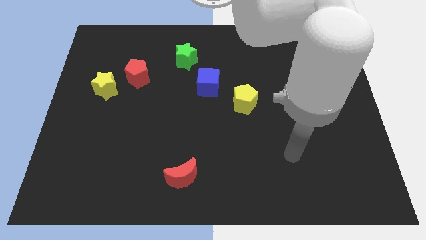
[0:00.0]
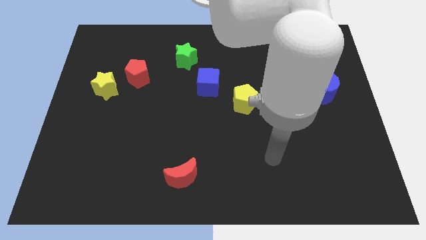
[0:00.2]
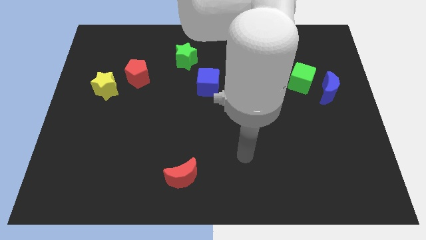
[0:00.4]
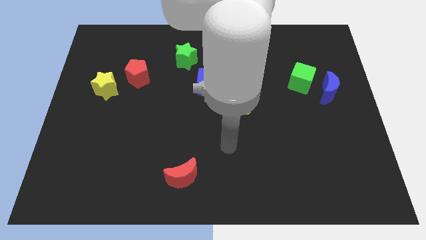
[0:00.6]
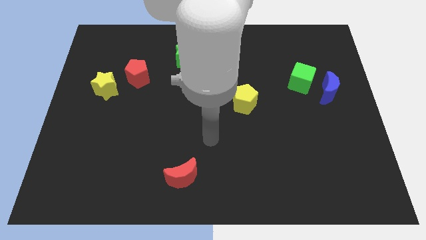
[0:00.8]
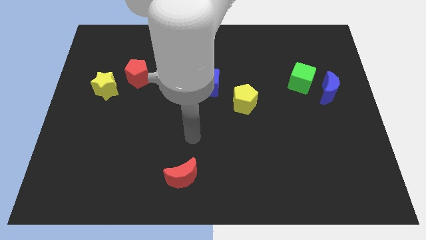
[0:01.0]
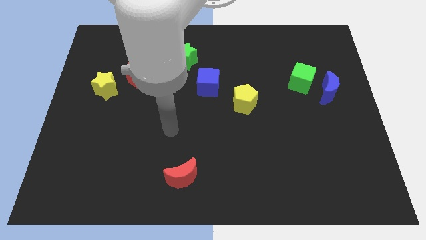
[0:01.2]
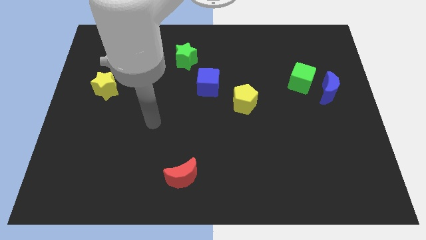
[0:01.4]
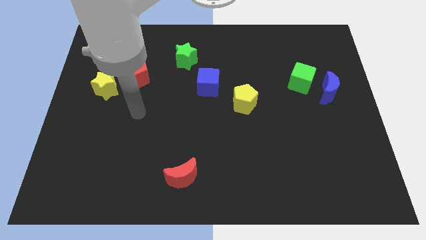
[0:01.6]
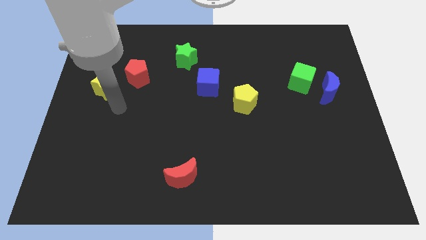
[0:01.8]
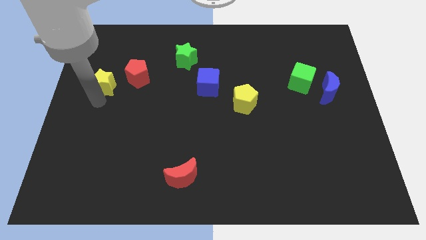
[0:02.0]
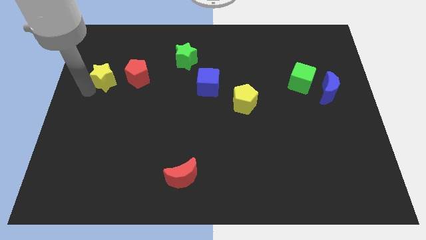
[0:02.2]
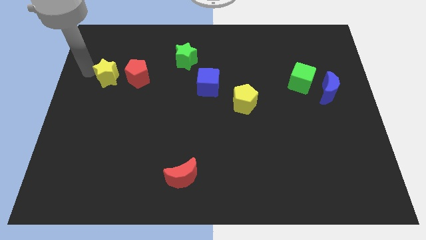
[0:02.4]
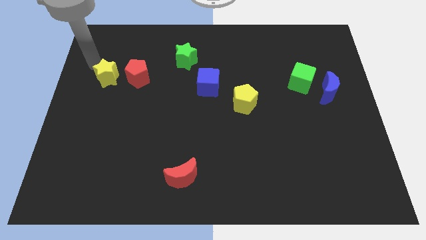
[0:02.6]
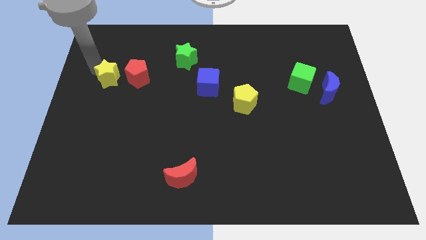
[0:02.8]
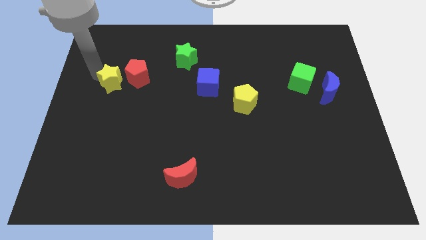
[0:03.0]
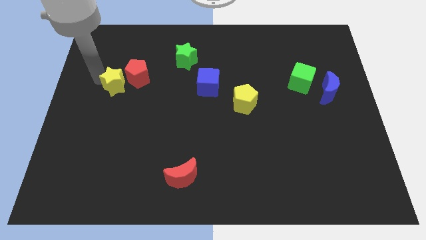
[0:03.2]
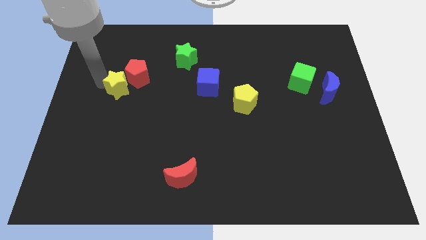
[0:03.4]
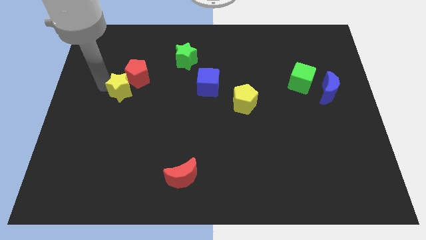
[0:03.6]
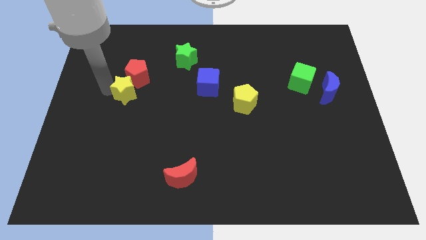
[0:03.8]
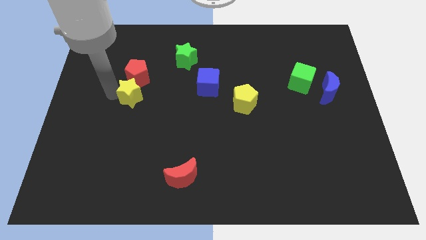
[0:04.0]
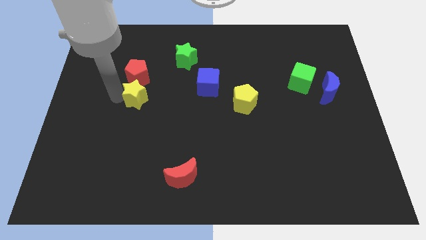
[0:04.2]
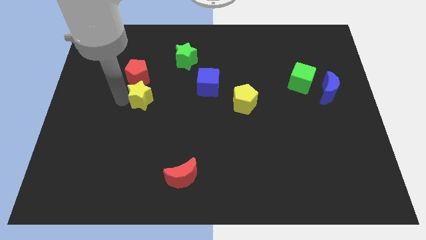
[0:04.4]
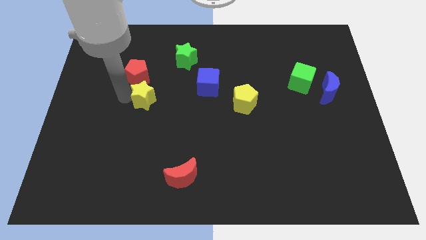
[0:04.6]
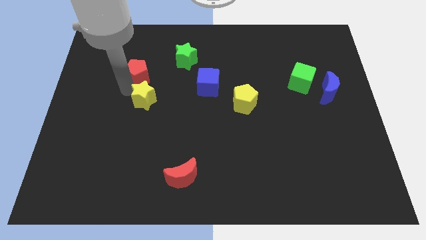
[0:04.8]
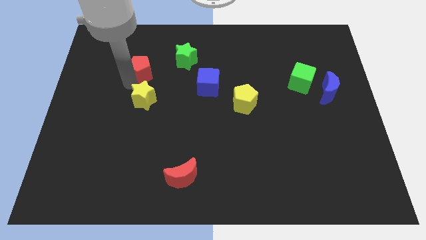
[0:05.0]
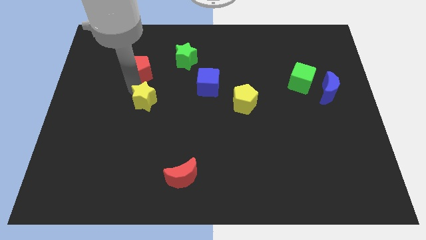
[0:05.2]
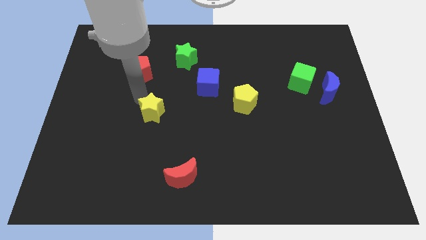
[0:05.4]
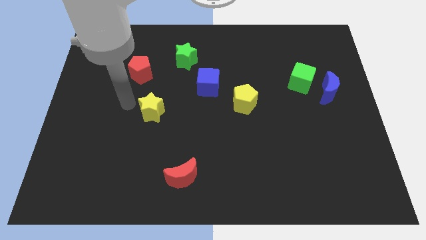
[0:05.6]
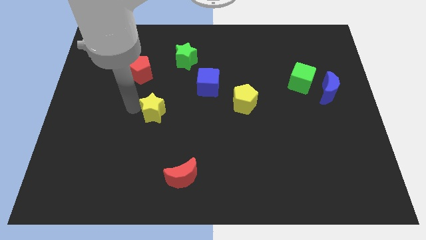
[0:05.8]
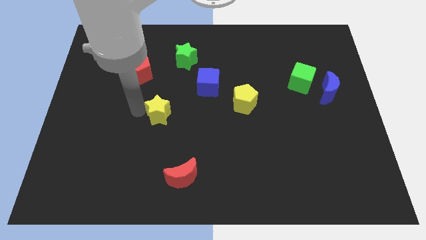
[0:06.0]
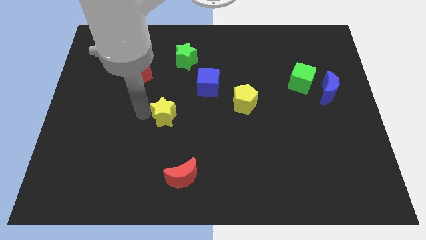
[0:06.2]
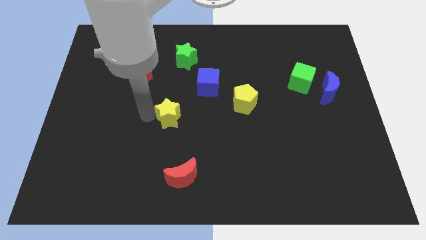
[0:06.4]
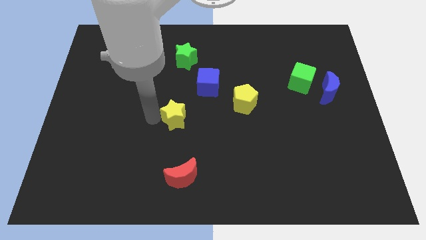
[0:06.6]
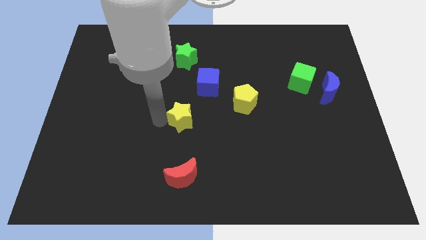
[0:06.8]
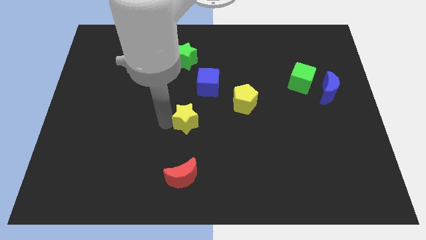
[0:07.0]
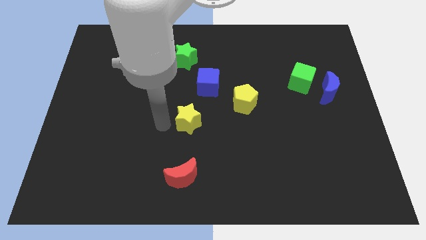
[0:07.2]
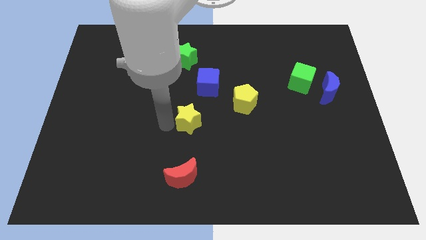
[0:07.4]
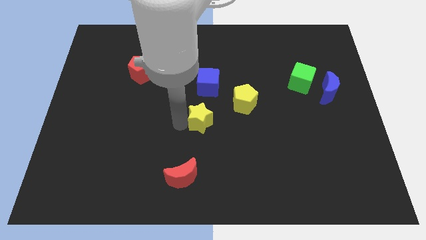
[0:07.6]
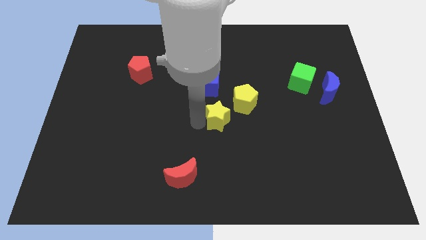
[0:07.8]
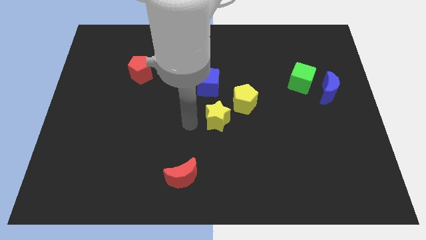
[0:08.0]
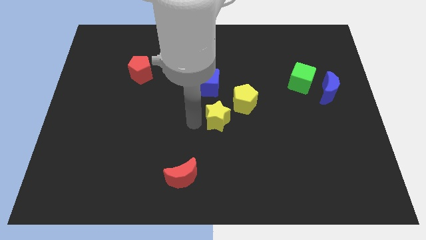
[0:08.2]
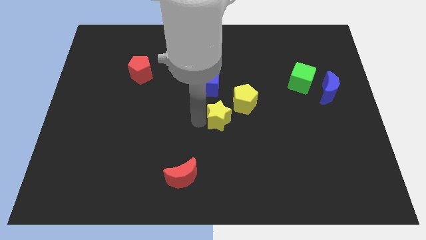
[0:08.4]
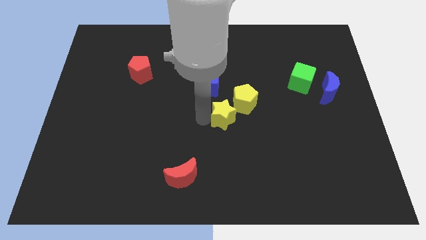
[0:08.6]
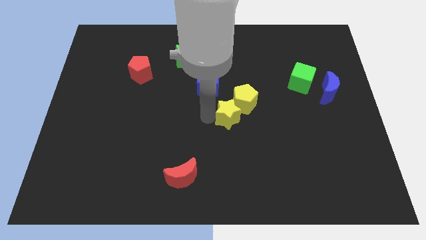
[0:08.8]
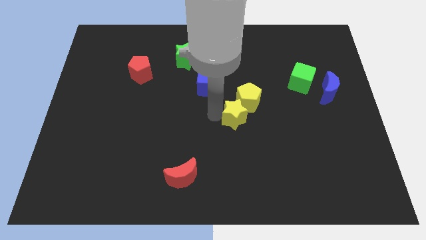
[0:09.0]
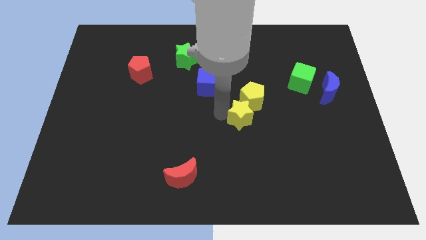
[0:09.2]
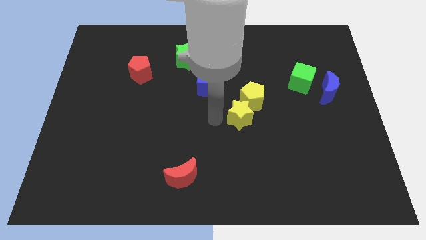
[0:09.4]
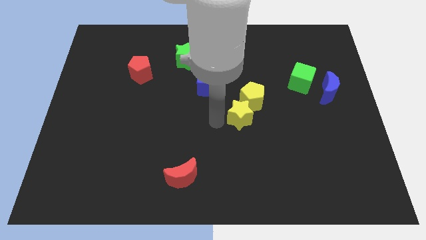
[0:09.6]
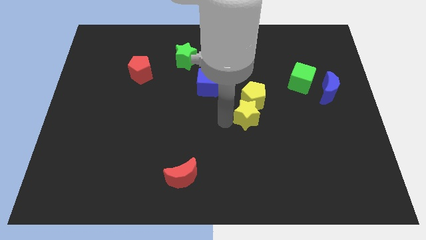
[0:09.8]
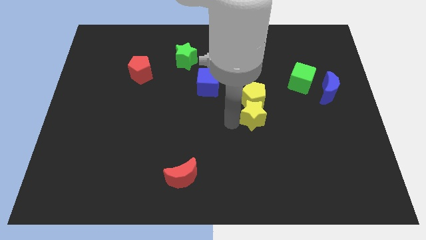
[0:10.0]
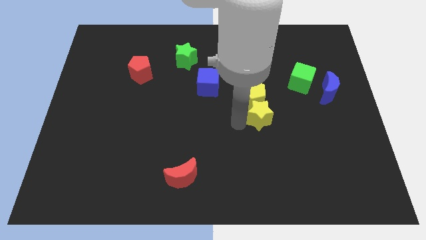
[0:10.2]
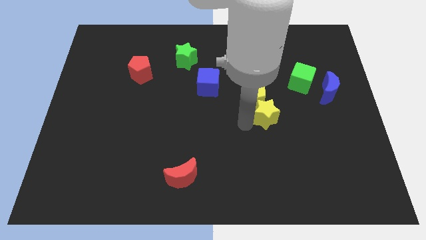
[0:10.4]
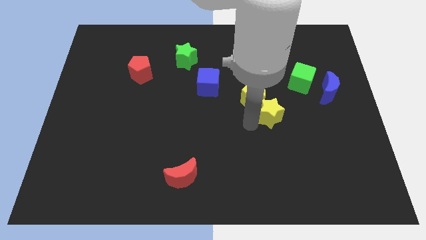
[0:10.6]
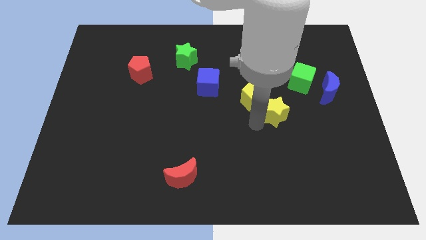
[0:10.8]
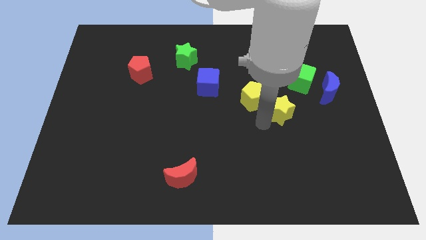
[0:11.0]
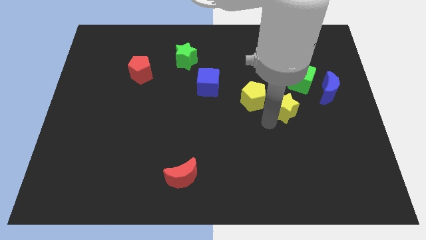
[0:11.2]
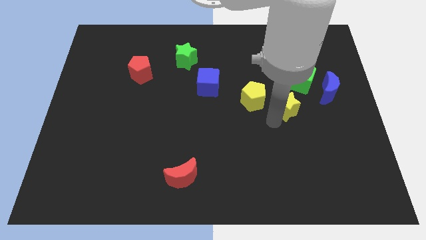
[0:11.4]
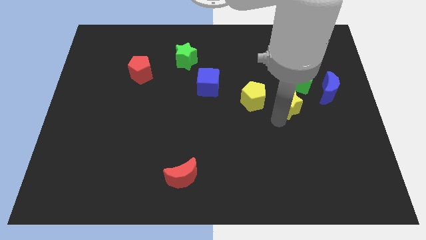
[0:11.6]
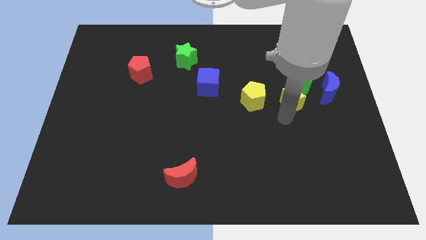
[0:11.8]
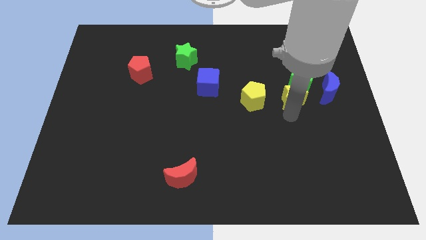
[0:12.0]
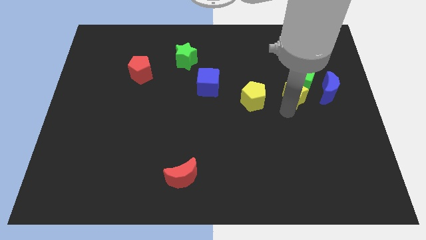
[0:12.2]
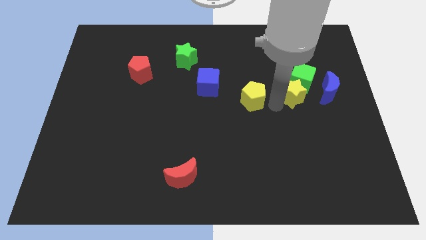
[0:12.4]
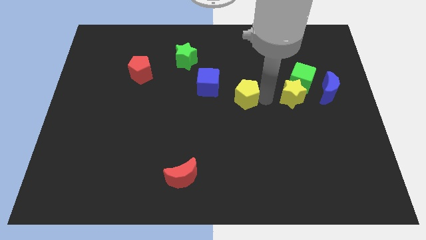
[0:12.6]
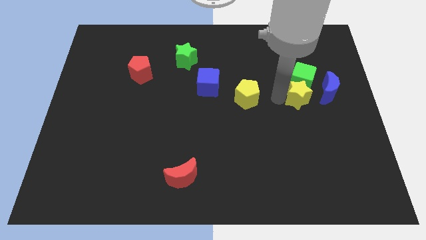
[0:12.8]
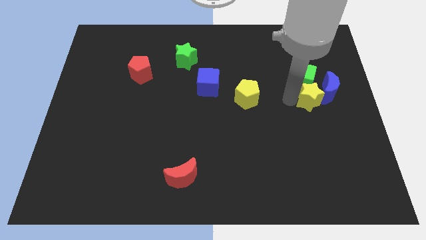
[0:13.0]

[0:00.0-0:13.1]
move the yellow star close to the blue moon
